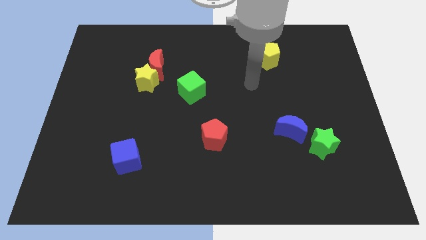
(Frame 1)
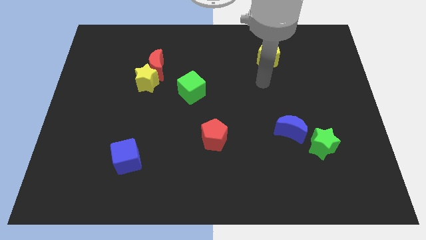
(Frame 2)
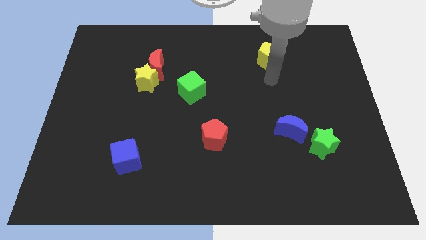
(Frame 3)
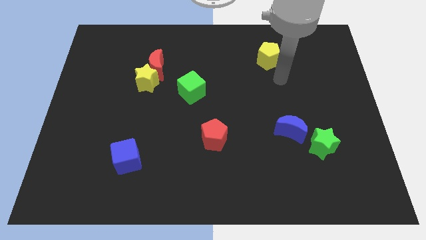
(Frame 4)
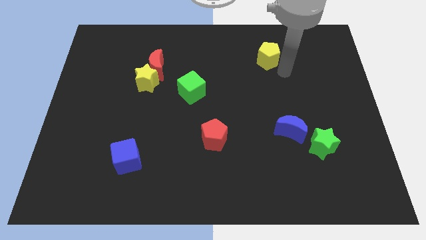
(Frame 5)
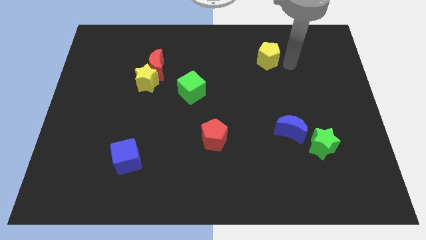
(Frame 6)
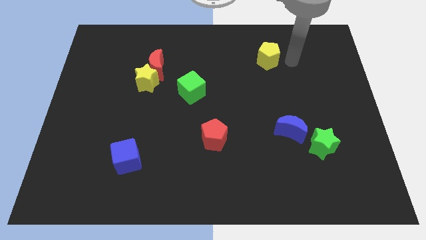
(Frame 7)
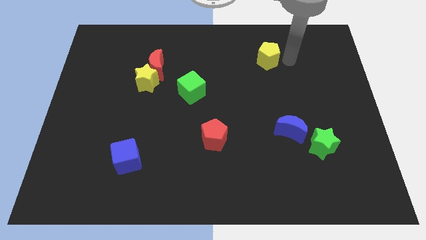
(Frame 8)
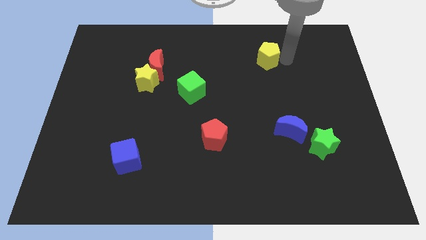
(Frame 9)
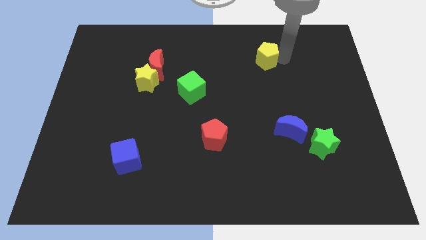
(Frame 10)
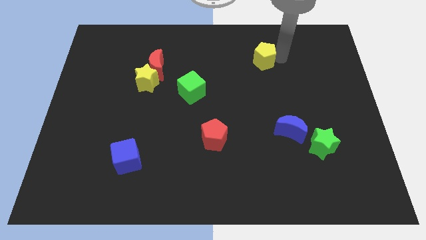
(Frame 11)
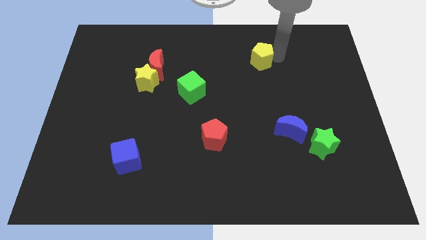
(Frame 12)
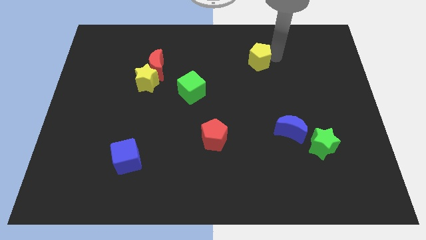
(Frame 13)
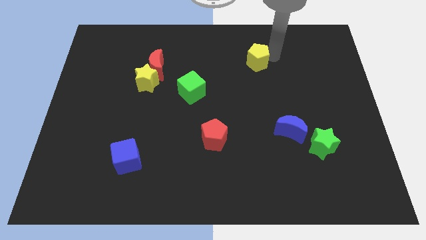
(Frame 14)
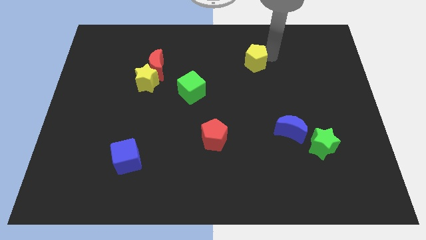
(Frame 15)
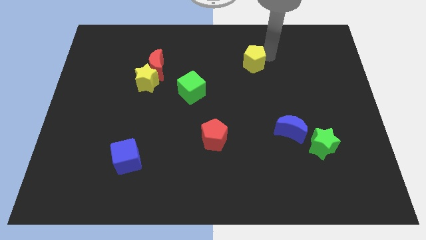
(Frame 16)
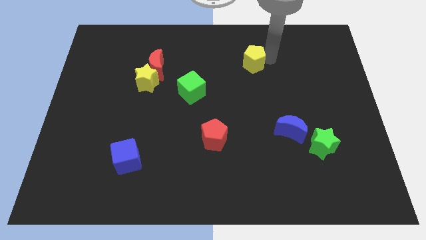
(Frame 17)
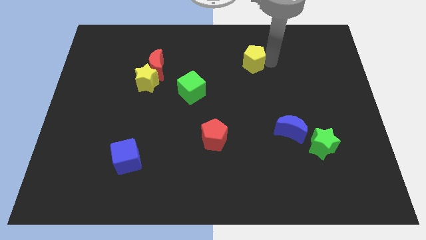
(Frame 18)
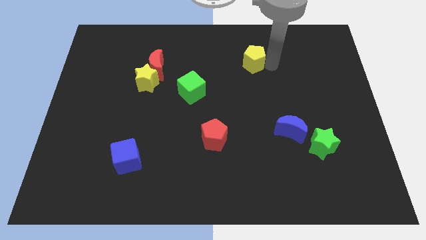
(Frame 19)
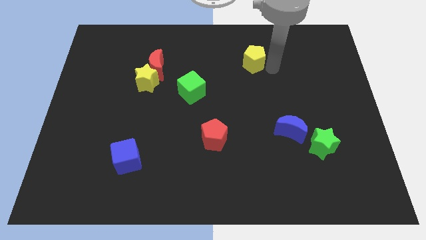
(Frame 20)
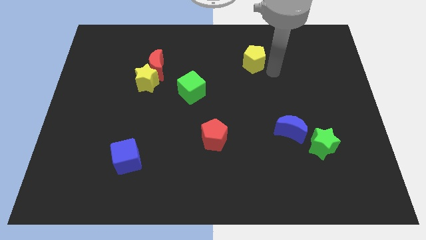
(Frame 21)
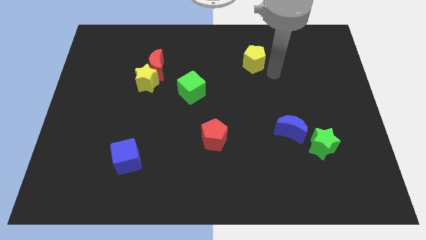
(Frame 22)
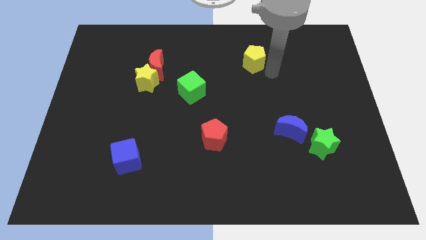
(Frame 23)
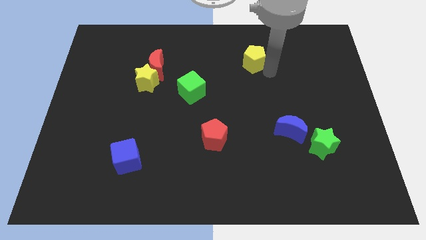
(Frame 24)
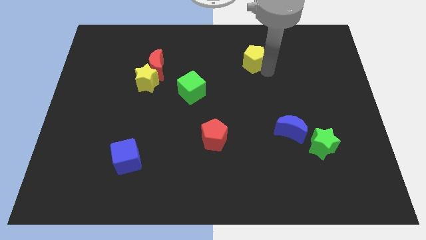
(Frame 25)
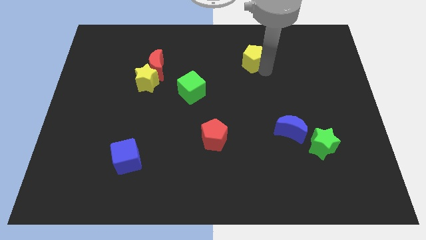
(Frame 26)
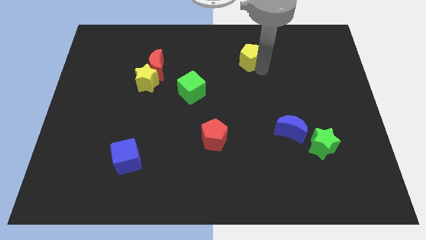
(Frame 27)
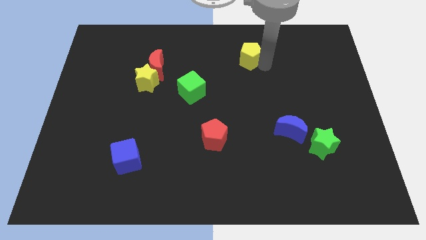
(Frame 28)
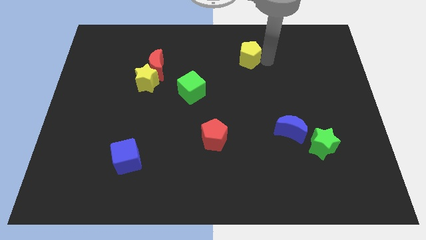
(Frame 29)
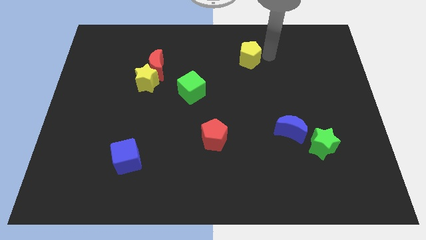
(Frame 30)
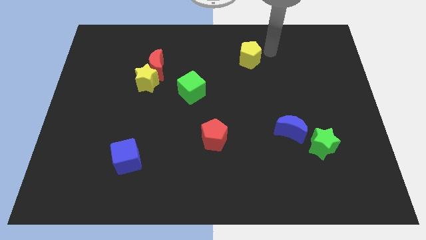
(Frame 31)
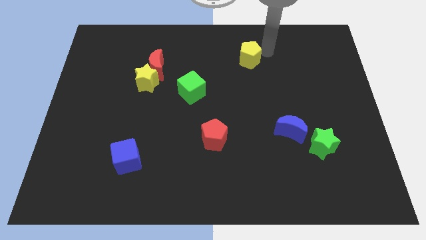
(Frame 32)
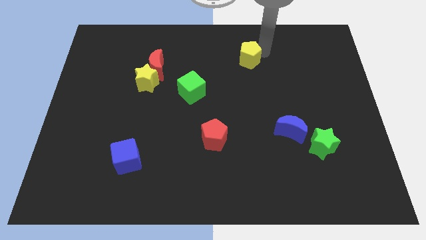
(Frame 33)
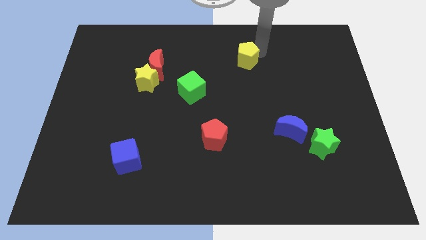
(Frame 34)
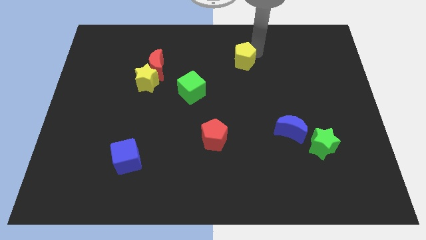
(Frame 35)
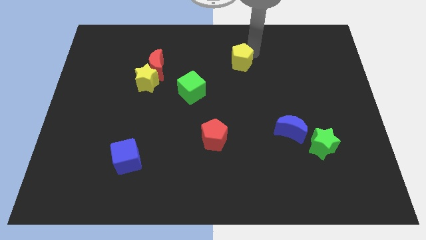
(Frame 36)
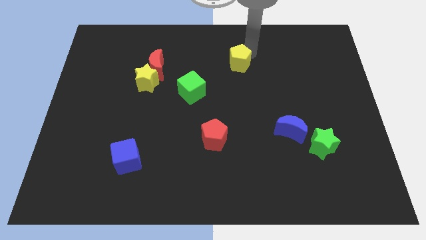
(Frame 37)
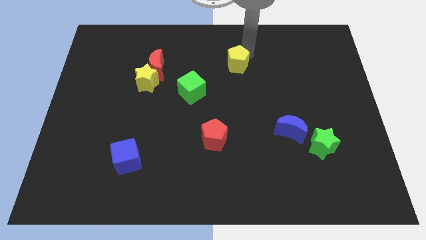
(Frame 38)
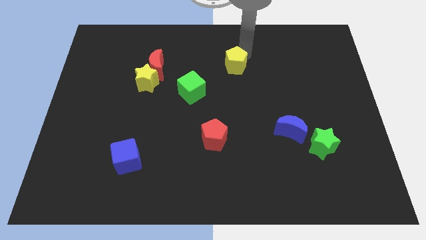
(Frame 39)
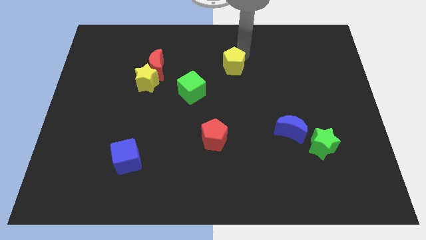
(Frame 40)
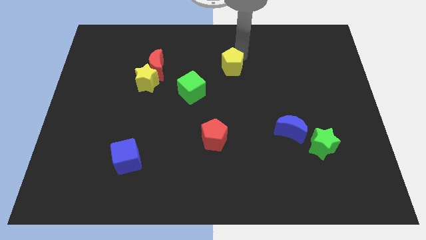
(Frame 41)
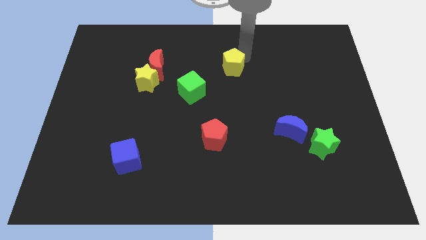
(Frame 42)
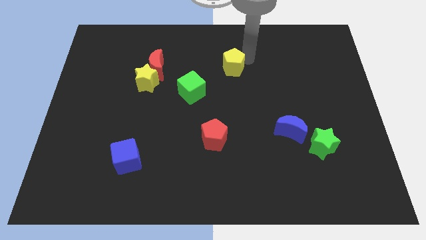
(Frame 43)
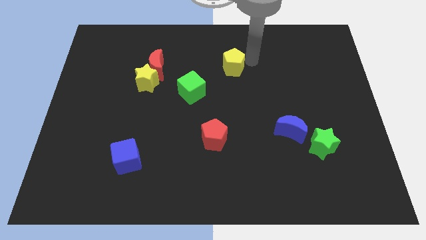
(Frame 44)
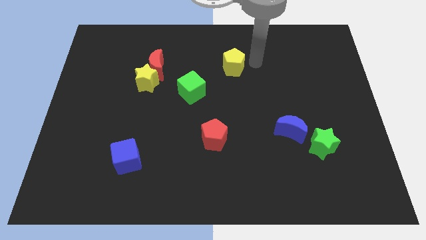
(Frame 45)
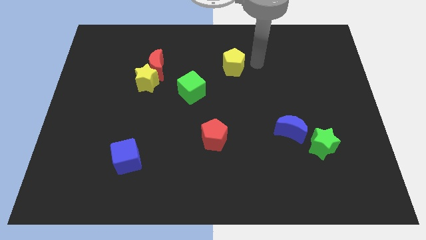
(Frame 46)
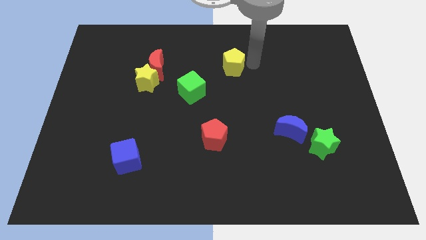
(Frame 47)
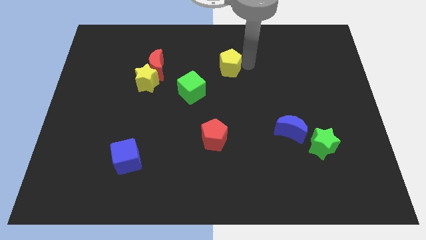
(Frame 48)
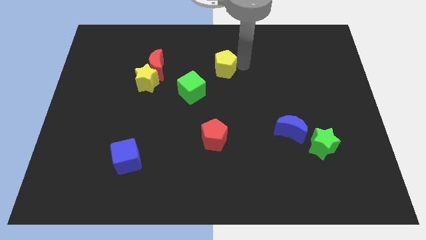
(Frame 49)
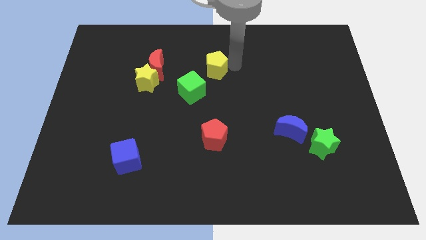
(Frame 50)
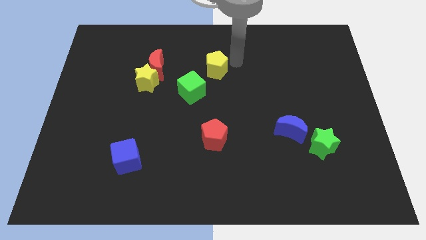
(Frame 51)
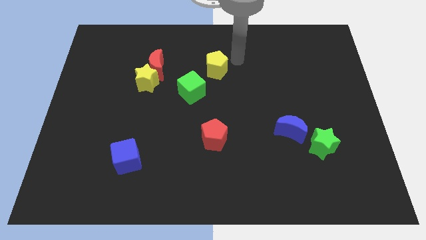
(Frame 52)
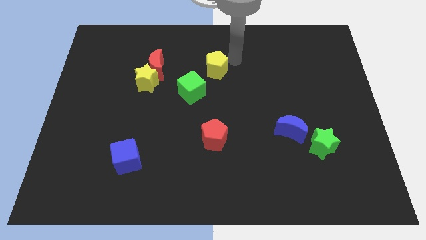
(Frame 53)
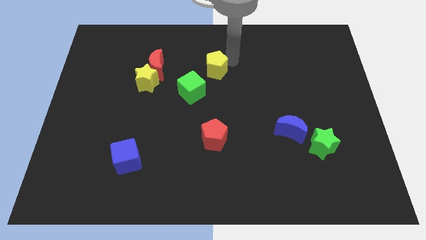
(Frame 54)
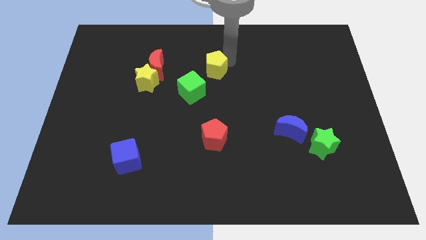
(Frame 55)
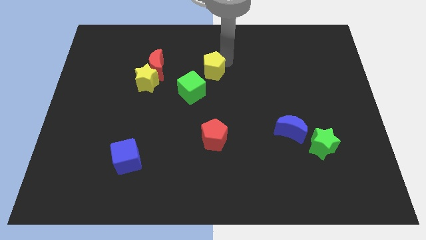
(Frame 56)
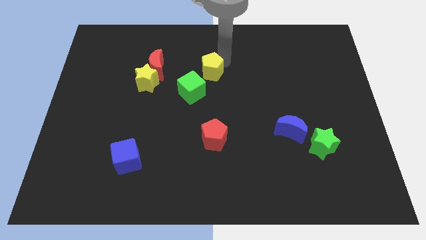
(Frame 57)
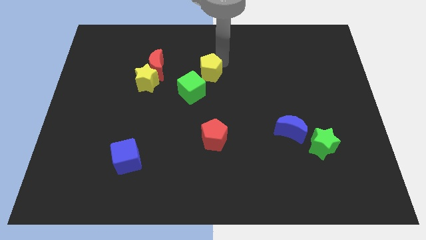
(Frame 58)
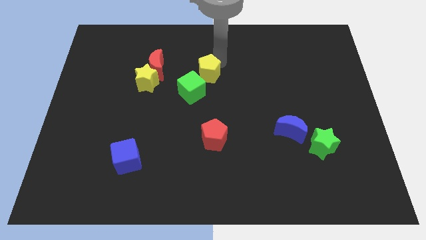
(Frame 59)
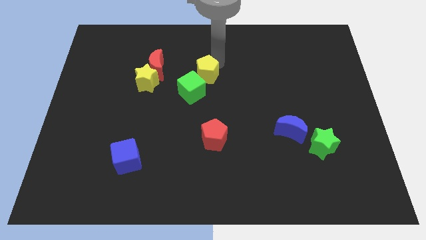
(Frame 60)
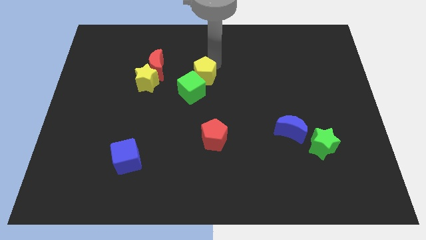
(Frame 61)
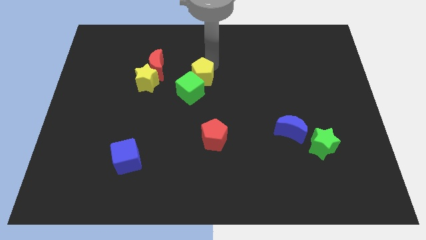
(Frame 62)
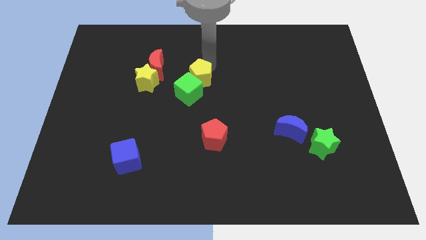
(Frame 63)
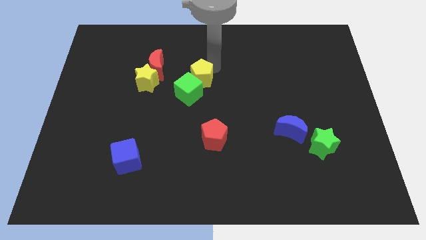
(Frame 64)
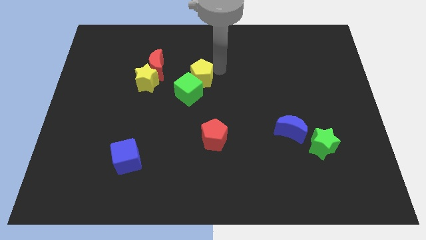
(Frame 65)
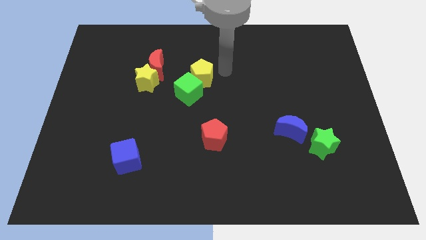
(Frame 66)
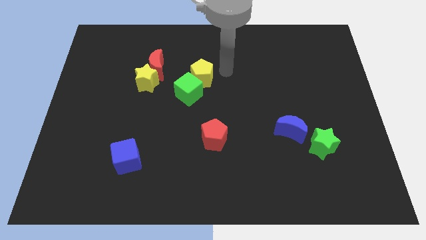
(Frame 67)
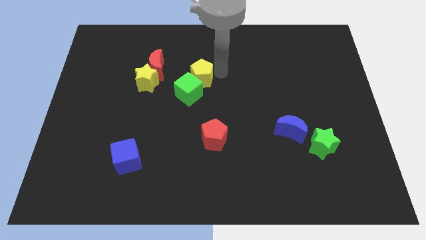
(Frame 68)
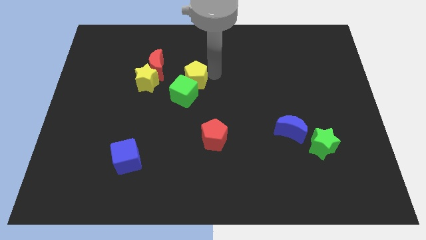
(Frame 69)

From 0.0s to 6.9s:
put the yellow pentagon diagonally down and to the right of the red moon
